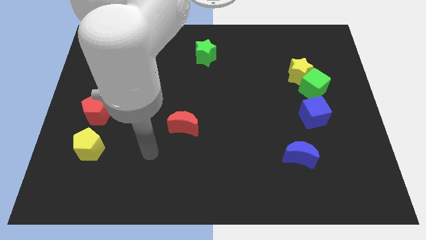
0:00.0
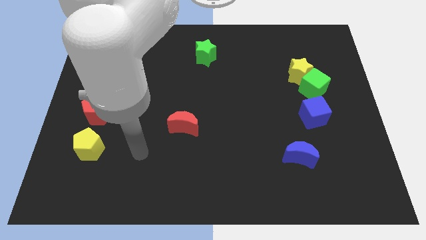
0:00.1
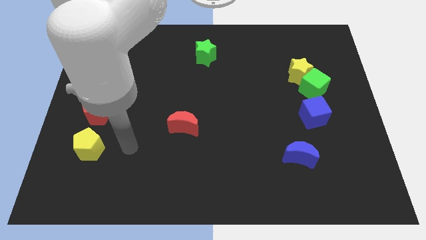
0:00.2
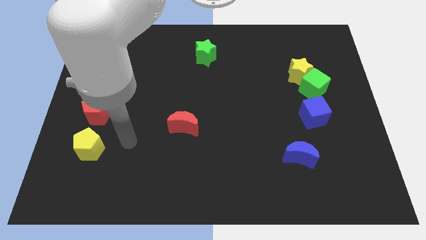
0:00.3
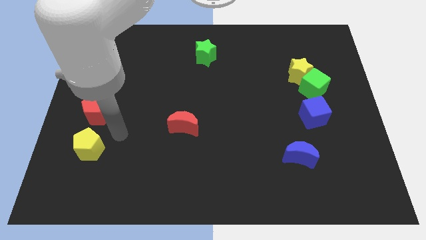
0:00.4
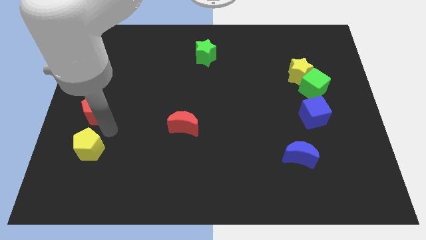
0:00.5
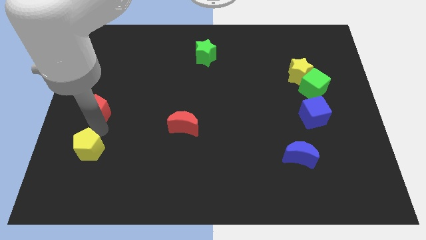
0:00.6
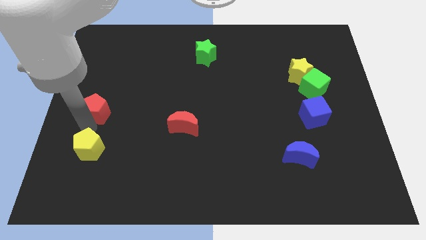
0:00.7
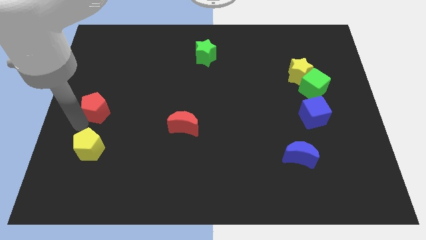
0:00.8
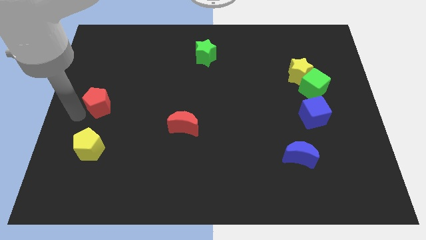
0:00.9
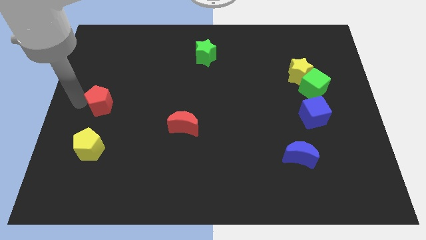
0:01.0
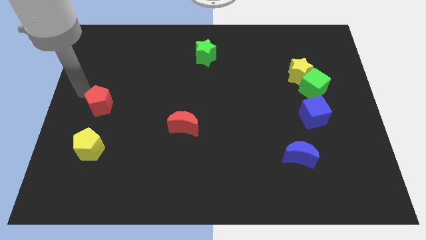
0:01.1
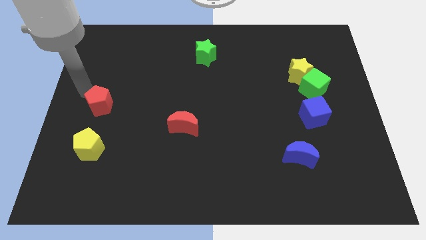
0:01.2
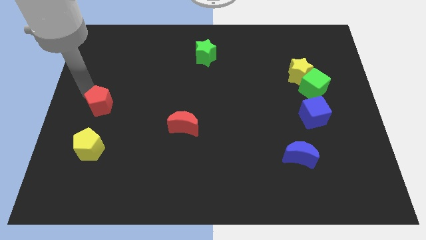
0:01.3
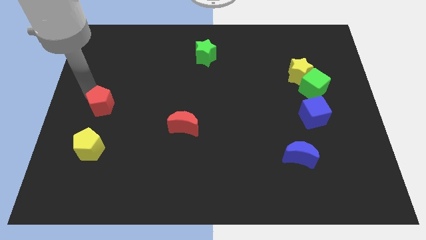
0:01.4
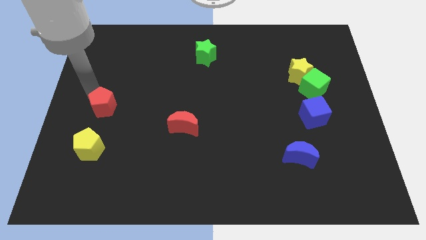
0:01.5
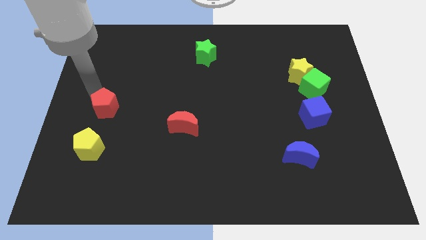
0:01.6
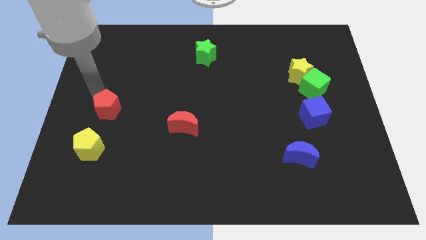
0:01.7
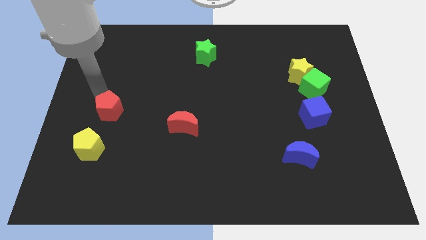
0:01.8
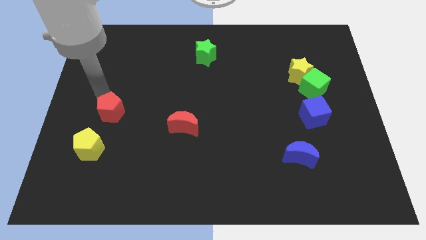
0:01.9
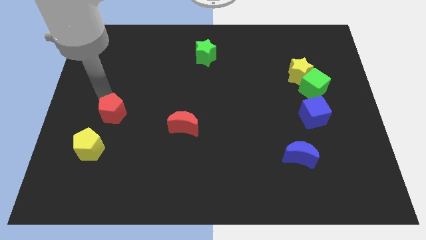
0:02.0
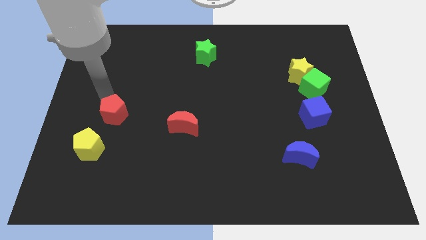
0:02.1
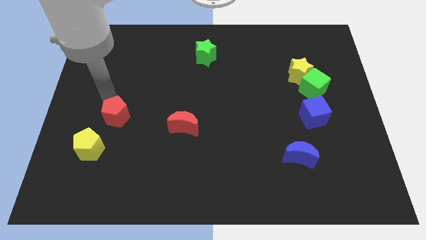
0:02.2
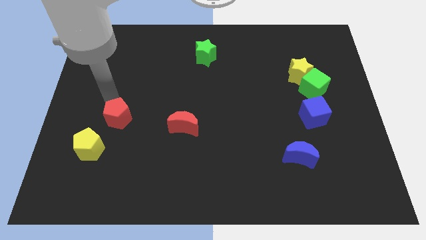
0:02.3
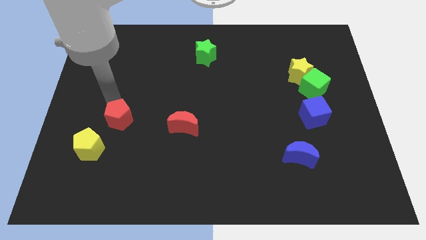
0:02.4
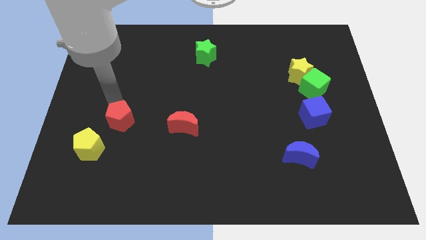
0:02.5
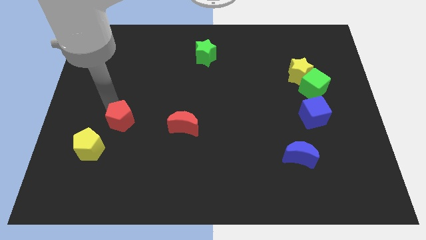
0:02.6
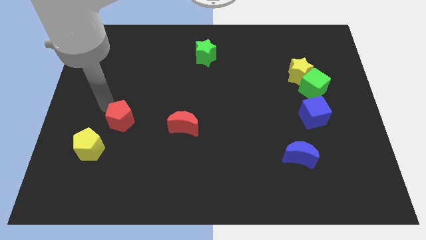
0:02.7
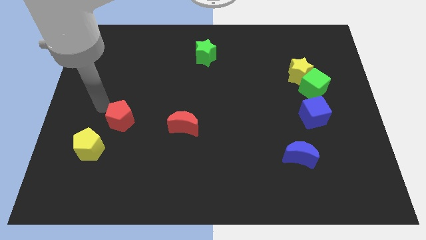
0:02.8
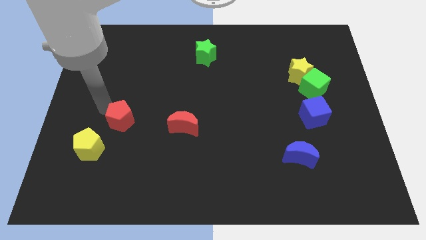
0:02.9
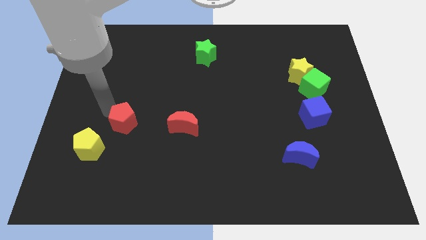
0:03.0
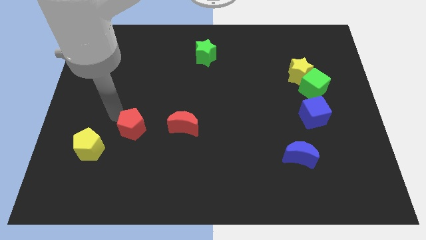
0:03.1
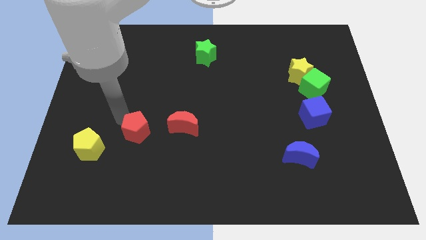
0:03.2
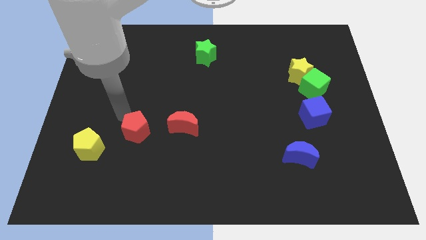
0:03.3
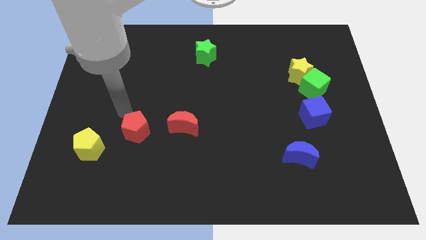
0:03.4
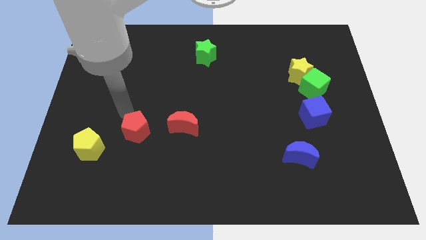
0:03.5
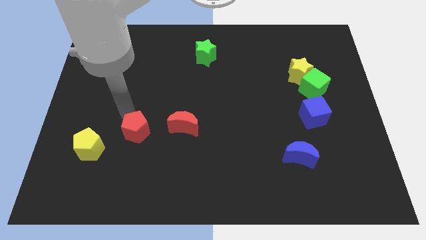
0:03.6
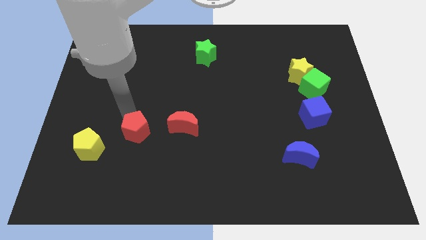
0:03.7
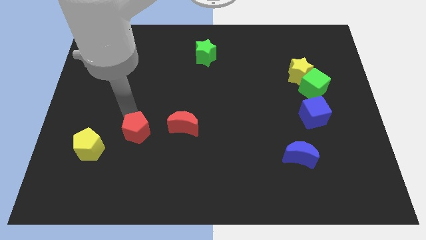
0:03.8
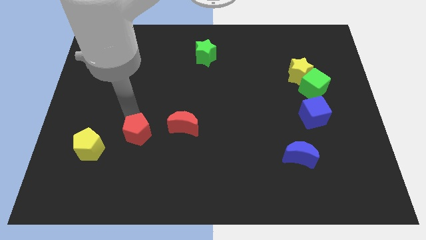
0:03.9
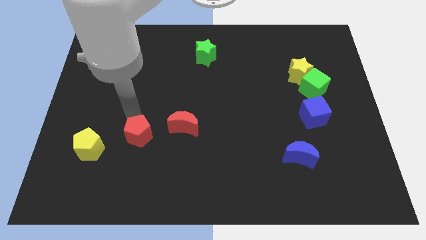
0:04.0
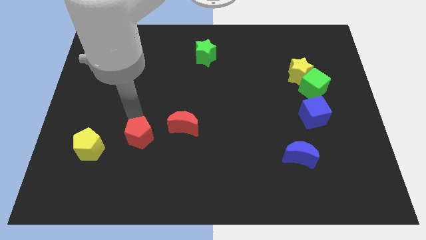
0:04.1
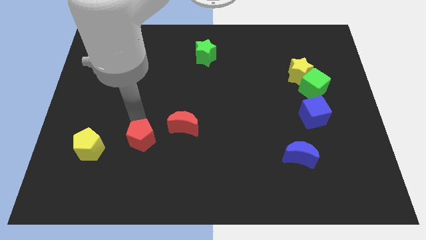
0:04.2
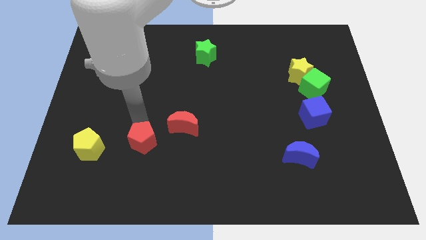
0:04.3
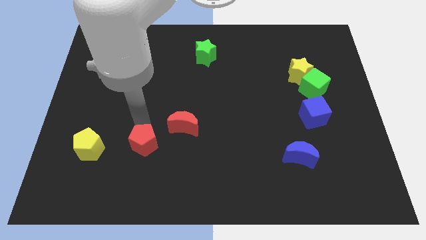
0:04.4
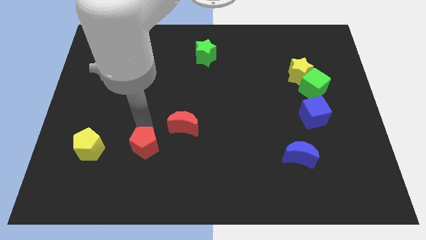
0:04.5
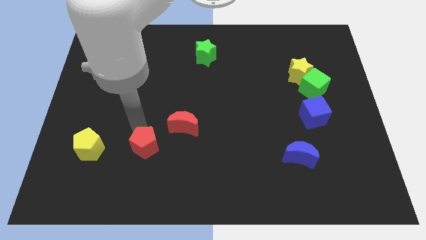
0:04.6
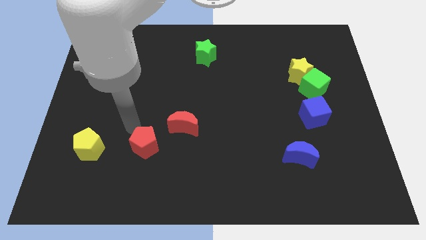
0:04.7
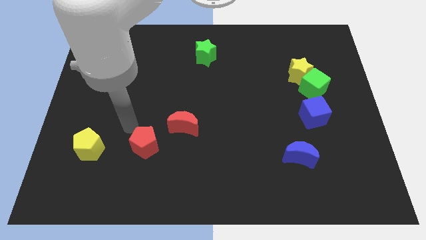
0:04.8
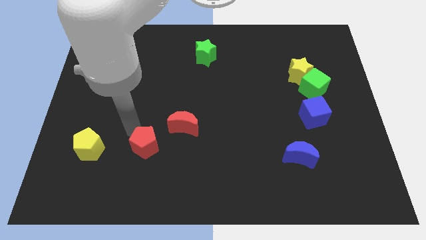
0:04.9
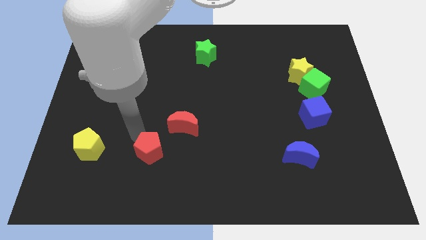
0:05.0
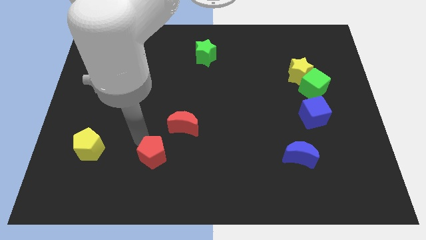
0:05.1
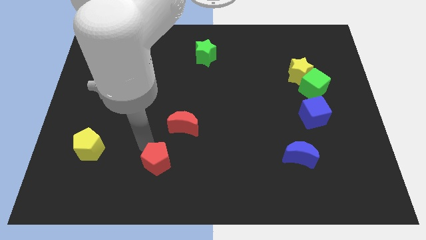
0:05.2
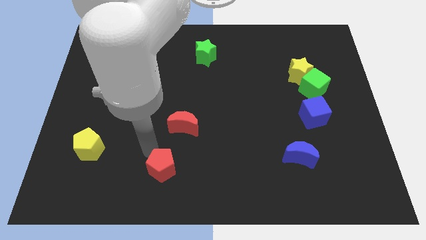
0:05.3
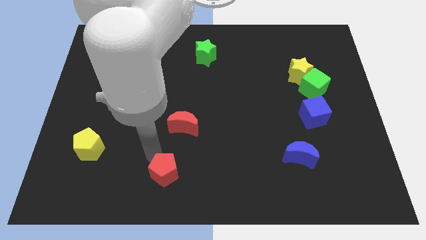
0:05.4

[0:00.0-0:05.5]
push the red pentagon to the bottom

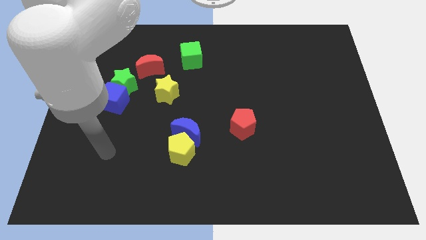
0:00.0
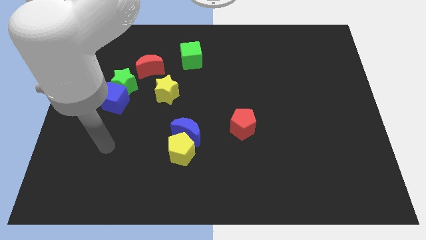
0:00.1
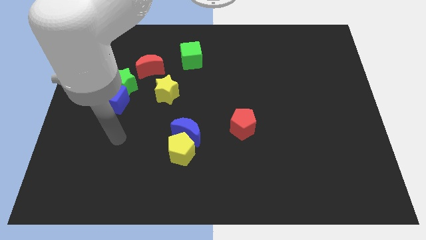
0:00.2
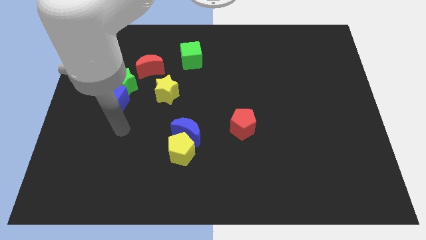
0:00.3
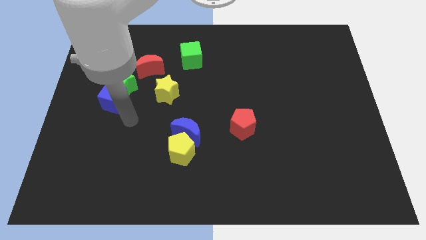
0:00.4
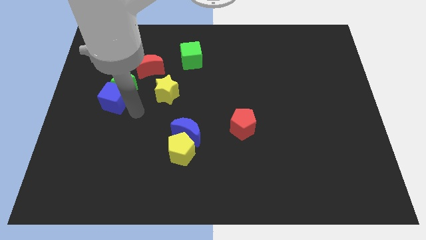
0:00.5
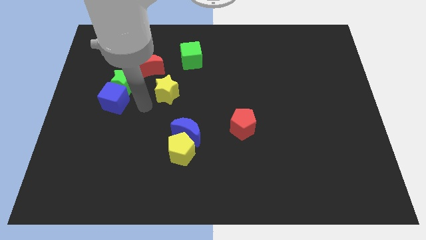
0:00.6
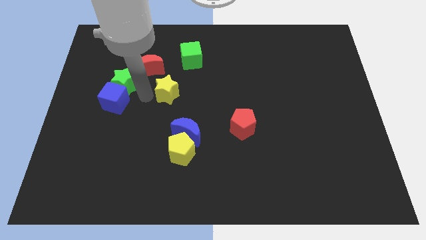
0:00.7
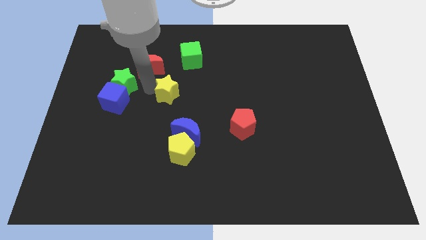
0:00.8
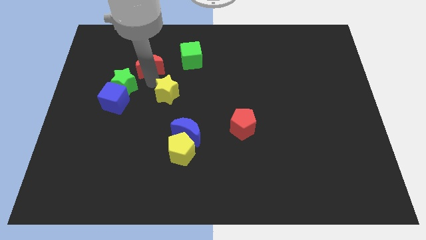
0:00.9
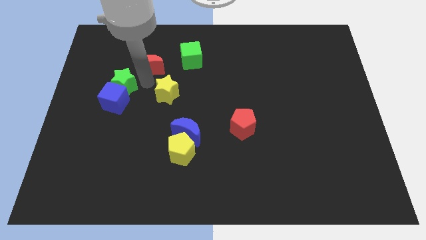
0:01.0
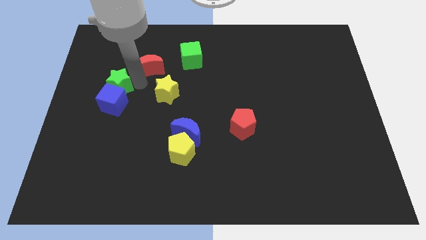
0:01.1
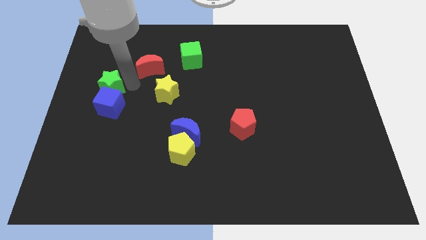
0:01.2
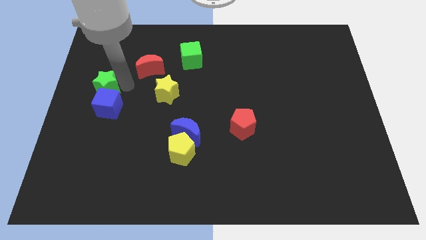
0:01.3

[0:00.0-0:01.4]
move the green star to the center left
